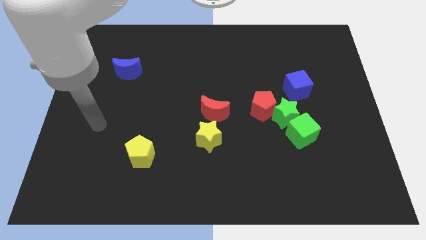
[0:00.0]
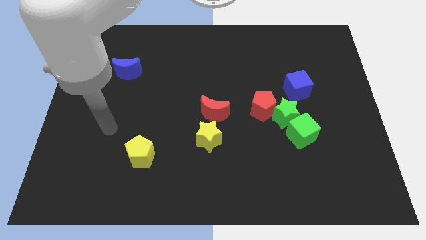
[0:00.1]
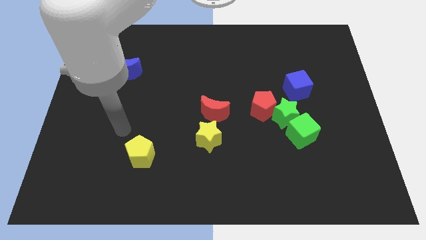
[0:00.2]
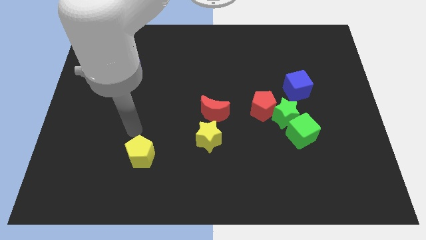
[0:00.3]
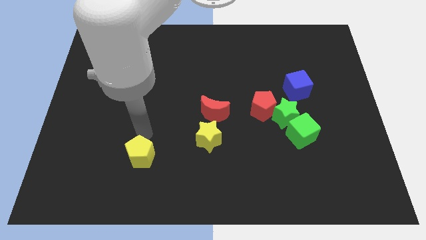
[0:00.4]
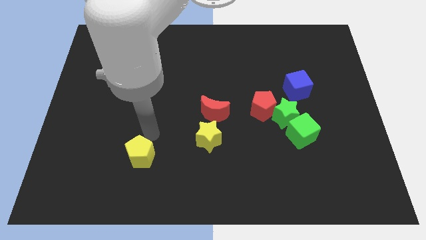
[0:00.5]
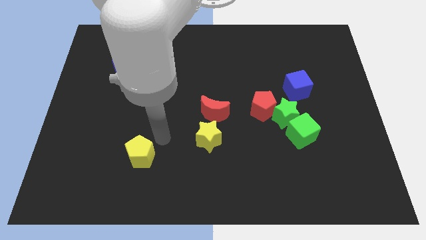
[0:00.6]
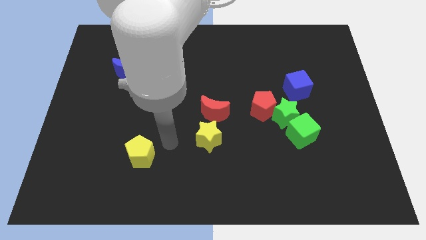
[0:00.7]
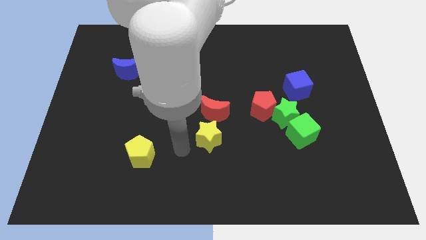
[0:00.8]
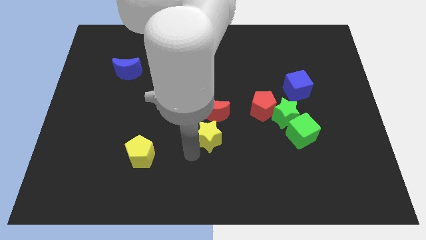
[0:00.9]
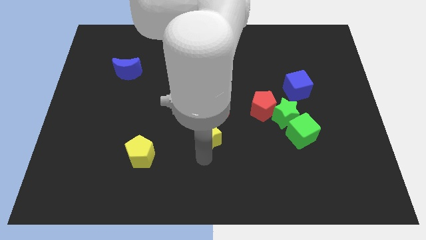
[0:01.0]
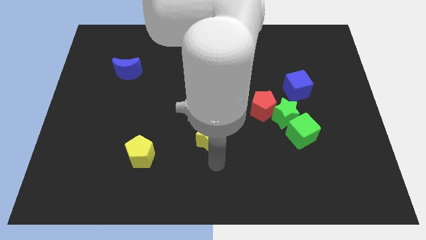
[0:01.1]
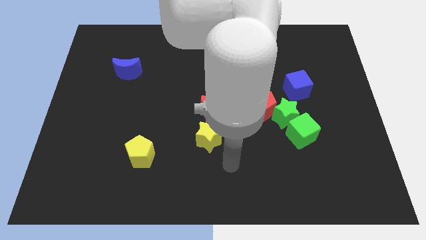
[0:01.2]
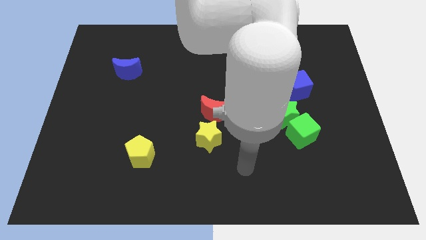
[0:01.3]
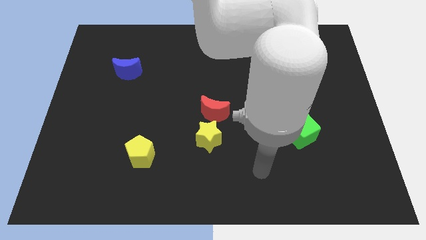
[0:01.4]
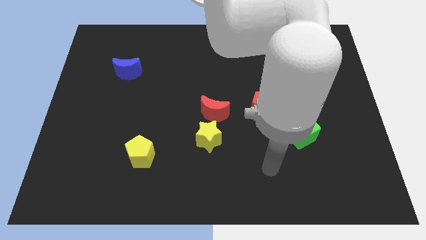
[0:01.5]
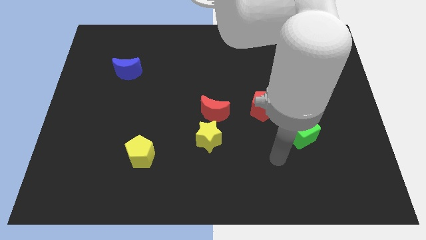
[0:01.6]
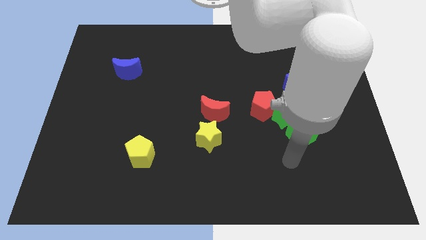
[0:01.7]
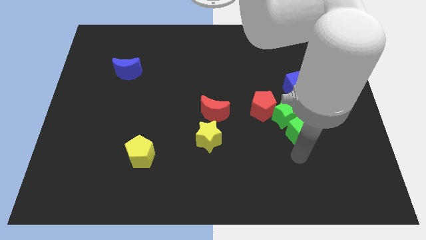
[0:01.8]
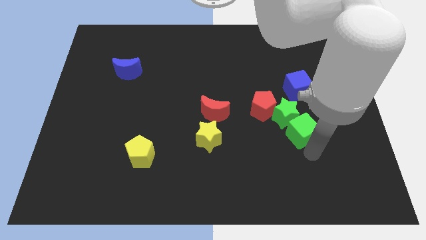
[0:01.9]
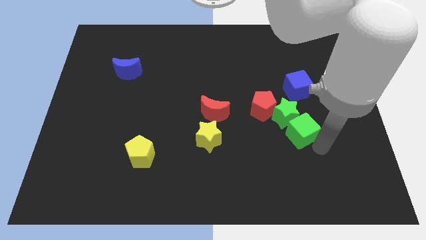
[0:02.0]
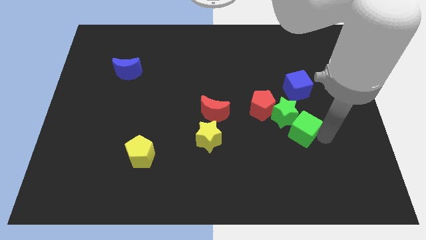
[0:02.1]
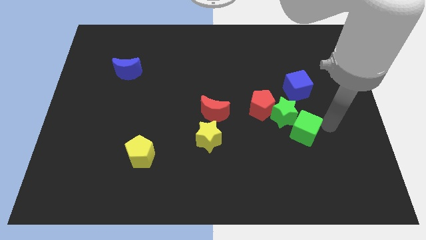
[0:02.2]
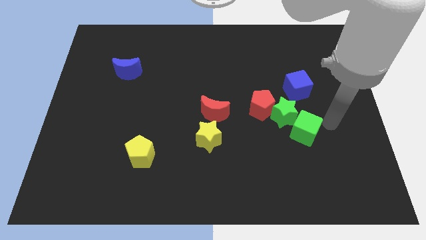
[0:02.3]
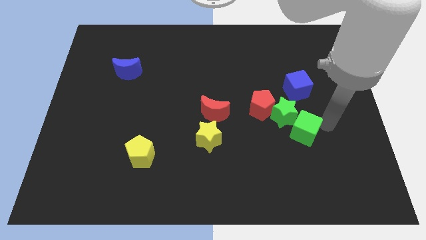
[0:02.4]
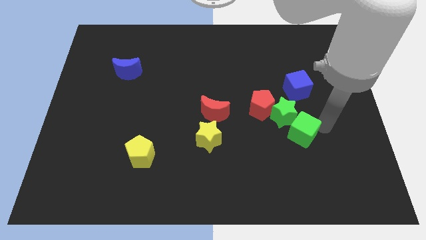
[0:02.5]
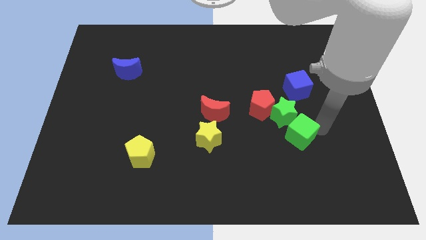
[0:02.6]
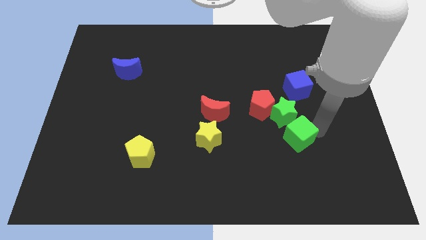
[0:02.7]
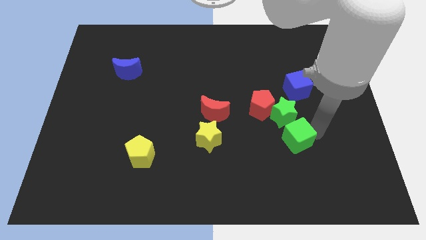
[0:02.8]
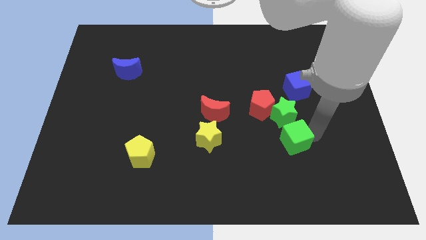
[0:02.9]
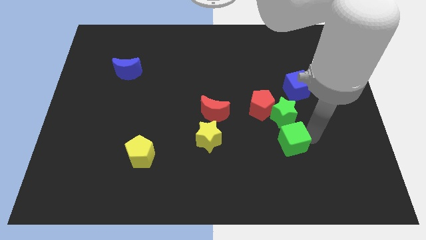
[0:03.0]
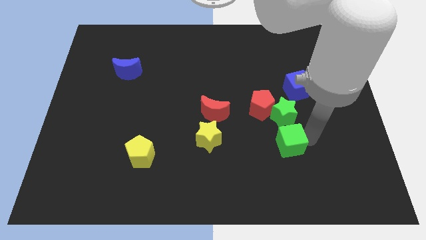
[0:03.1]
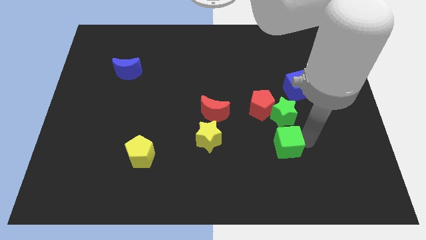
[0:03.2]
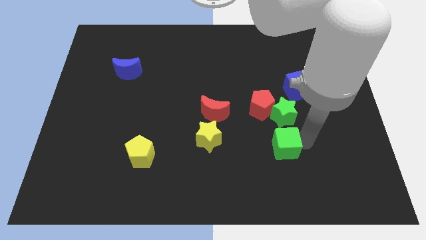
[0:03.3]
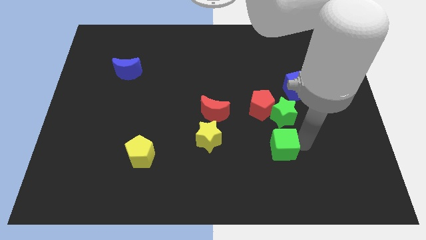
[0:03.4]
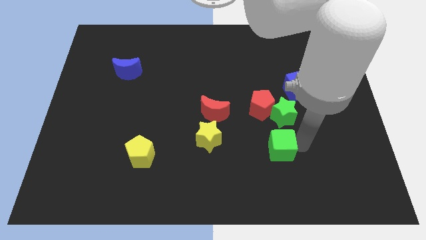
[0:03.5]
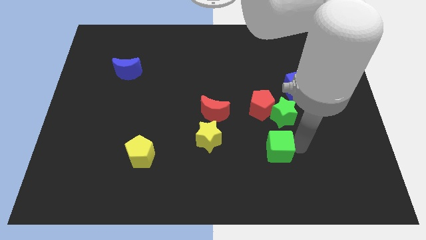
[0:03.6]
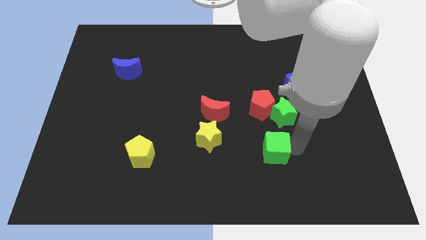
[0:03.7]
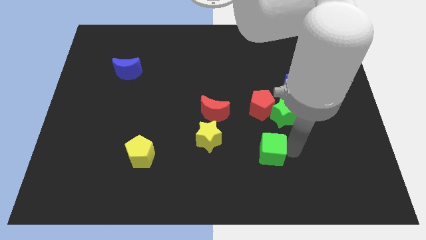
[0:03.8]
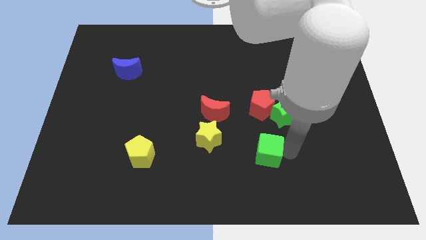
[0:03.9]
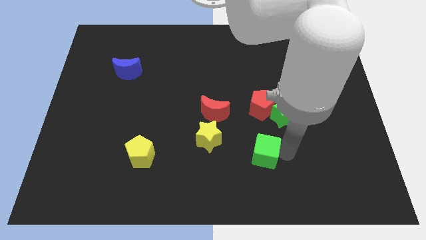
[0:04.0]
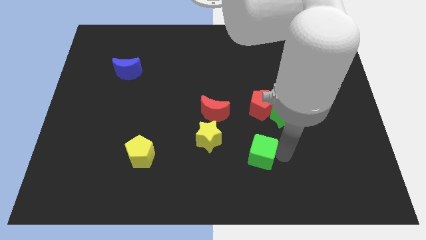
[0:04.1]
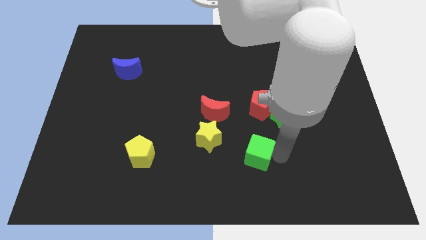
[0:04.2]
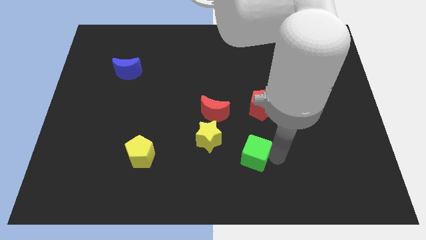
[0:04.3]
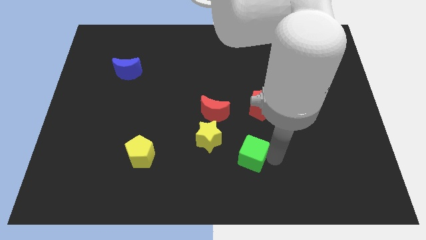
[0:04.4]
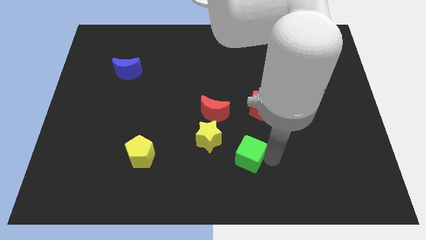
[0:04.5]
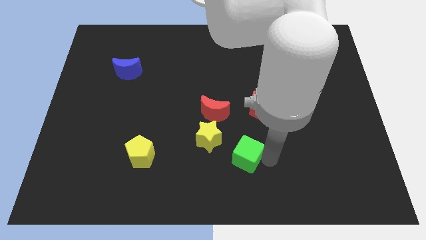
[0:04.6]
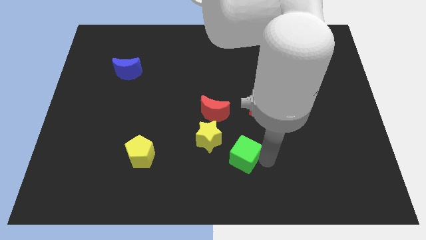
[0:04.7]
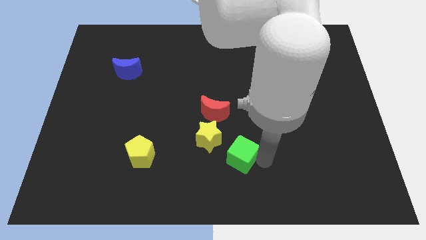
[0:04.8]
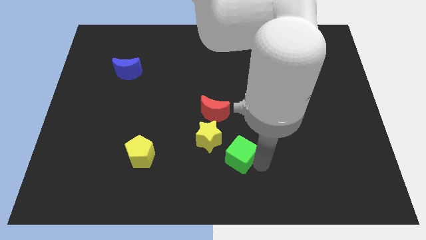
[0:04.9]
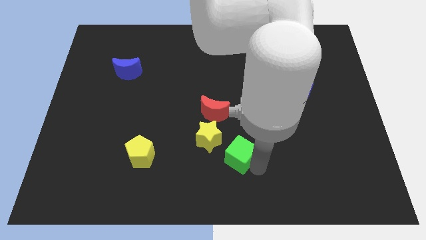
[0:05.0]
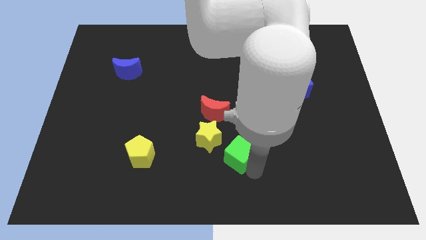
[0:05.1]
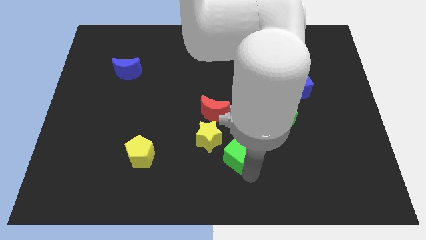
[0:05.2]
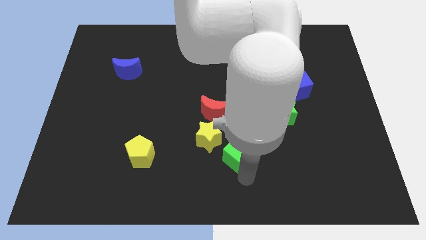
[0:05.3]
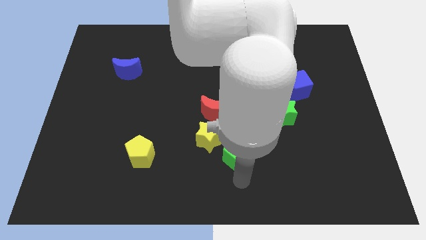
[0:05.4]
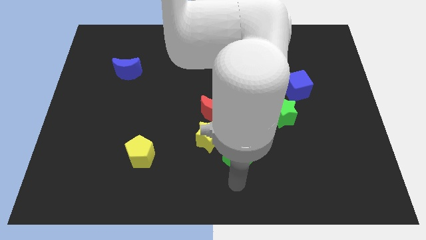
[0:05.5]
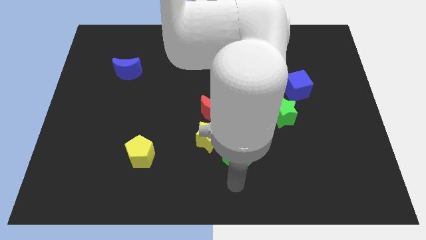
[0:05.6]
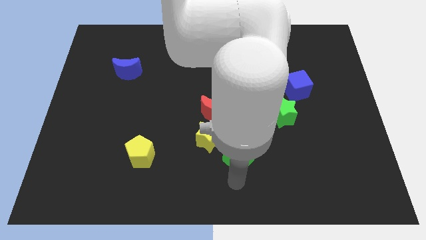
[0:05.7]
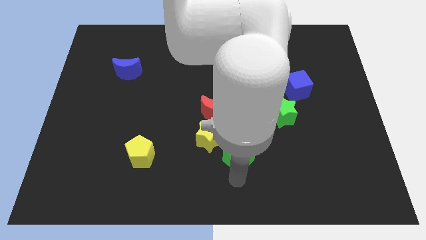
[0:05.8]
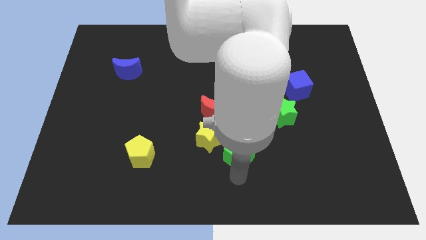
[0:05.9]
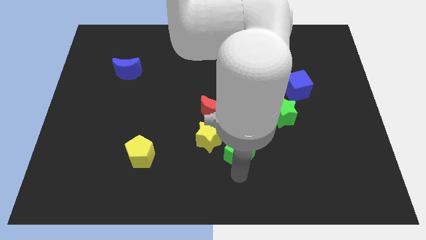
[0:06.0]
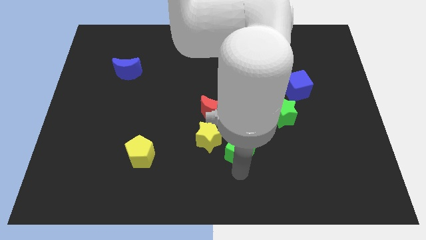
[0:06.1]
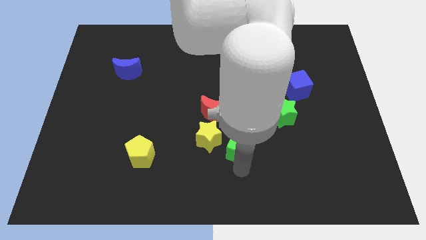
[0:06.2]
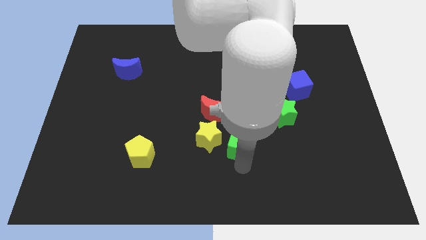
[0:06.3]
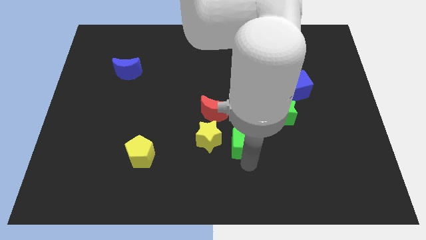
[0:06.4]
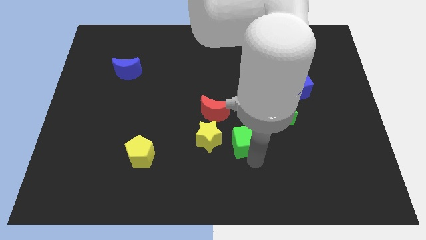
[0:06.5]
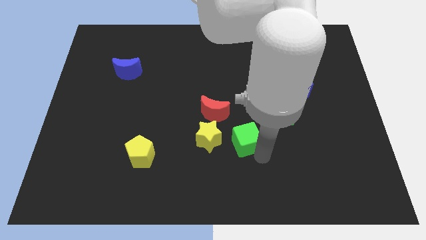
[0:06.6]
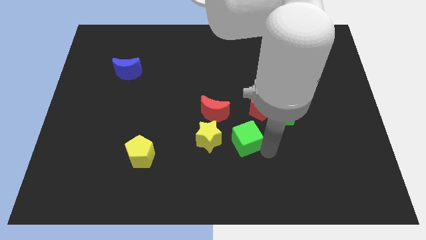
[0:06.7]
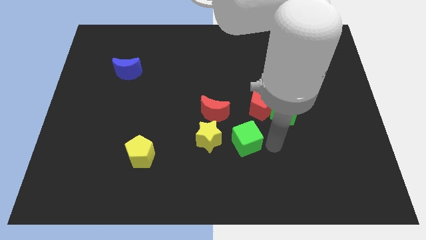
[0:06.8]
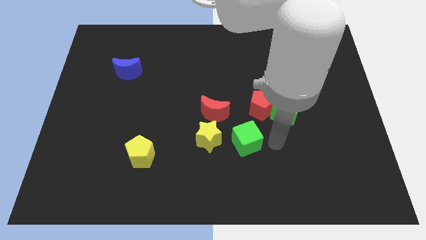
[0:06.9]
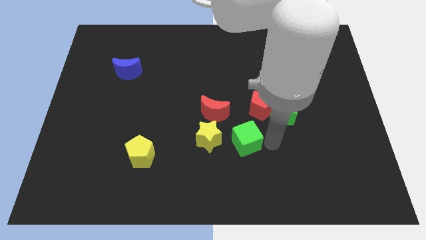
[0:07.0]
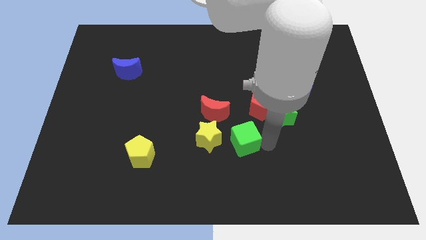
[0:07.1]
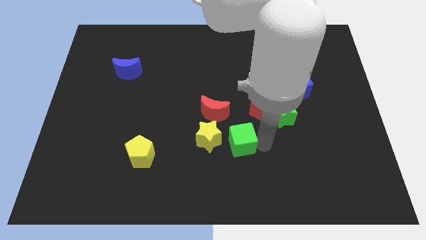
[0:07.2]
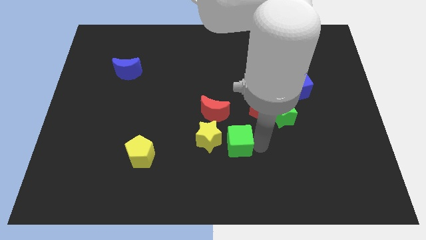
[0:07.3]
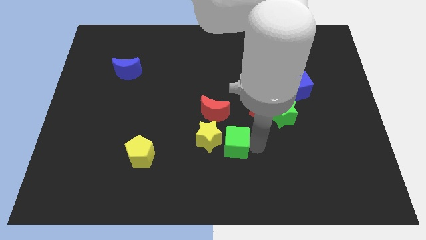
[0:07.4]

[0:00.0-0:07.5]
move the green cube close to the yellow star
